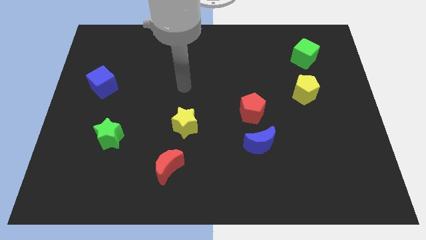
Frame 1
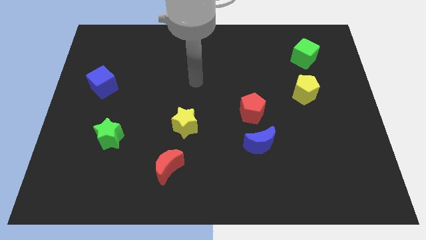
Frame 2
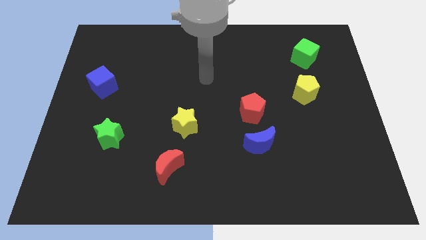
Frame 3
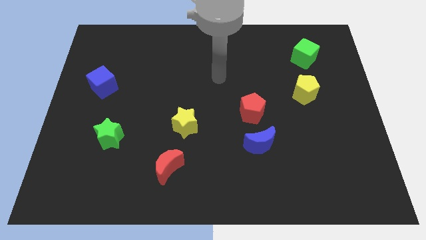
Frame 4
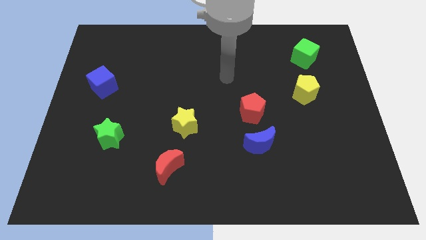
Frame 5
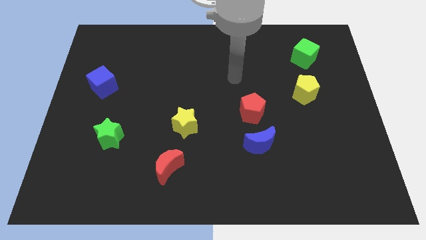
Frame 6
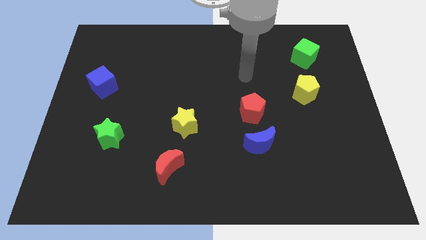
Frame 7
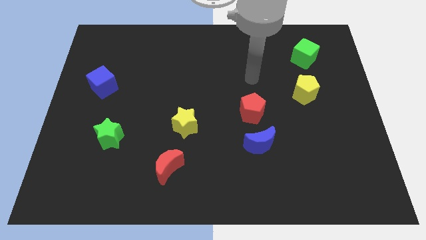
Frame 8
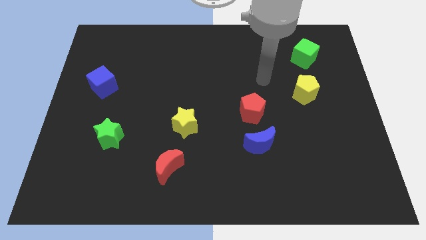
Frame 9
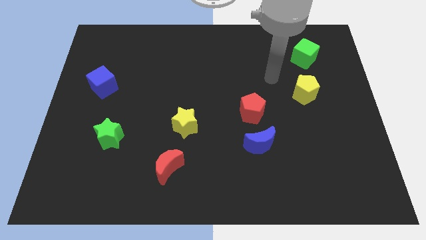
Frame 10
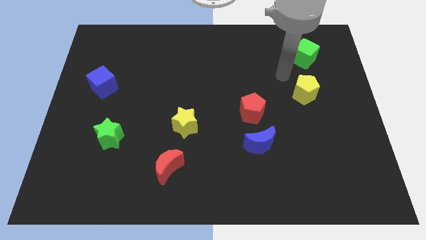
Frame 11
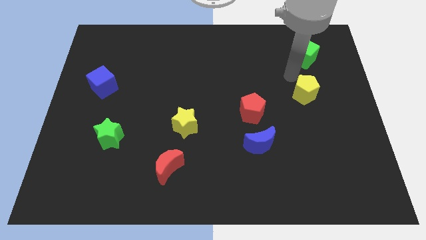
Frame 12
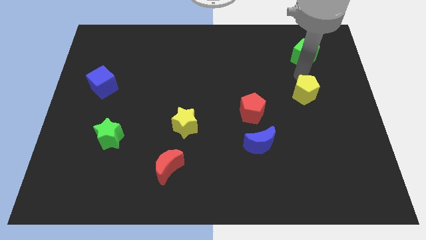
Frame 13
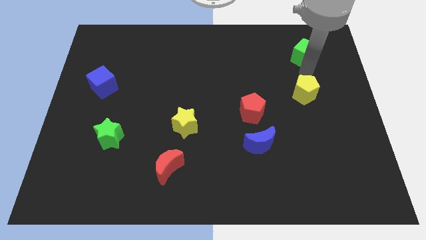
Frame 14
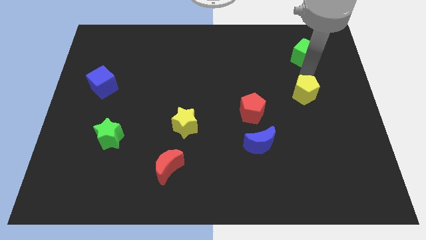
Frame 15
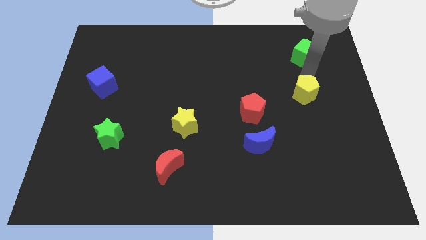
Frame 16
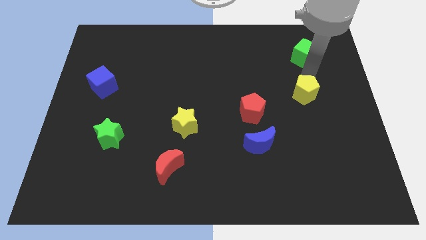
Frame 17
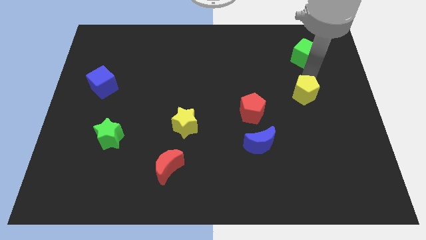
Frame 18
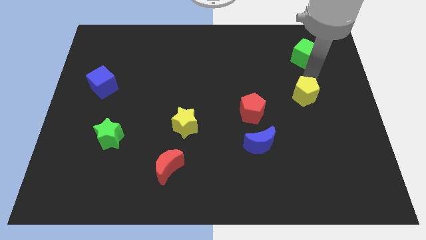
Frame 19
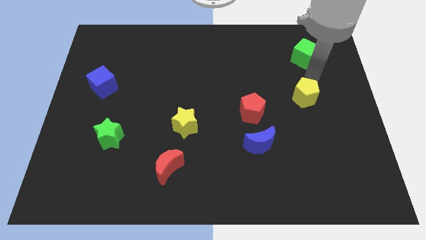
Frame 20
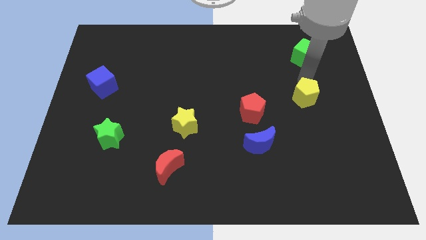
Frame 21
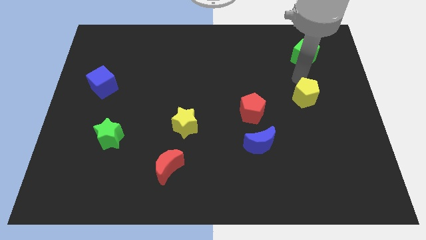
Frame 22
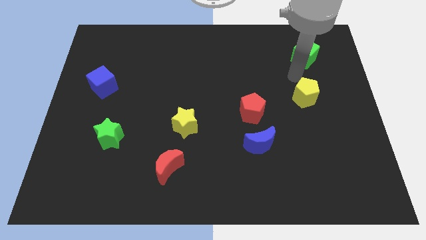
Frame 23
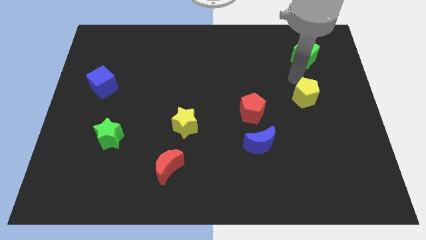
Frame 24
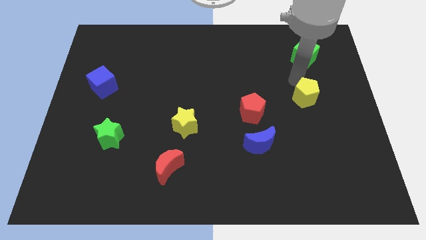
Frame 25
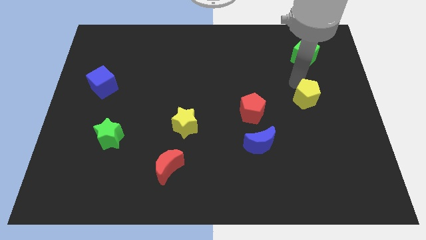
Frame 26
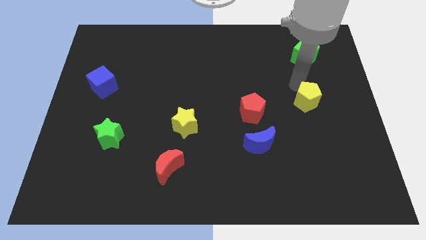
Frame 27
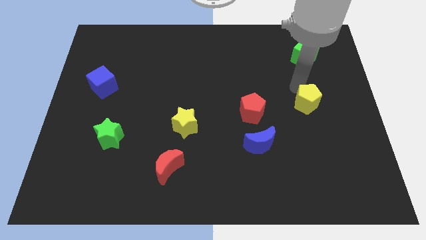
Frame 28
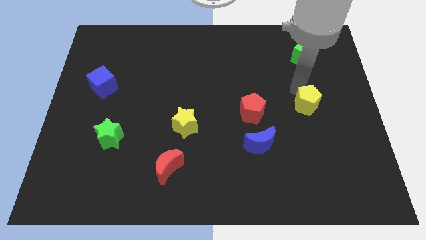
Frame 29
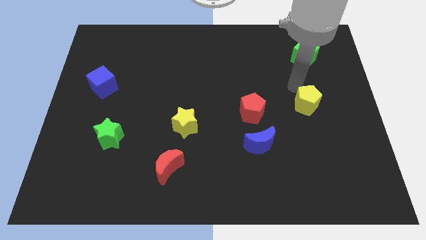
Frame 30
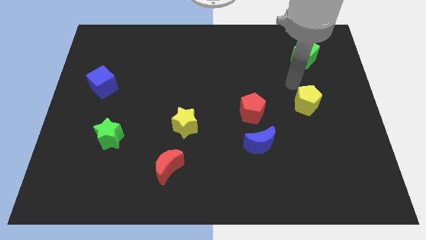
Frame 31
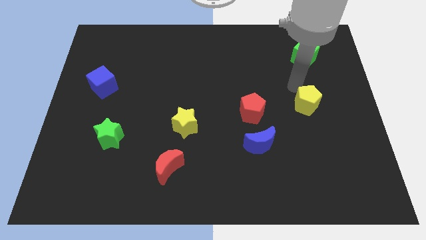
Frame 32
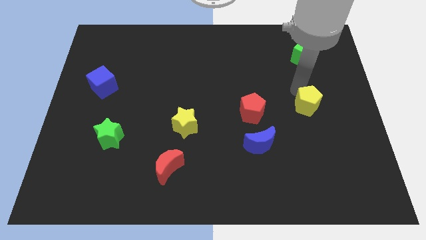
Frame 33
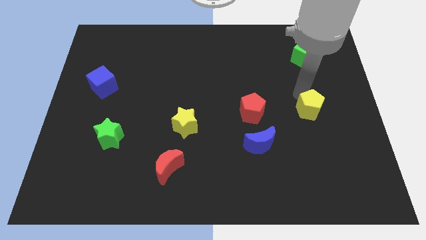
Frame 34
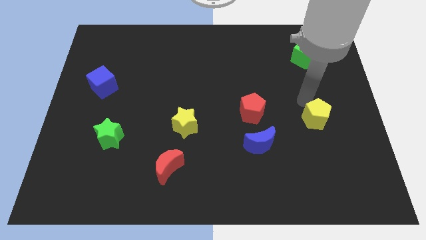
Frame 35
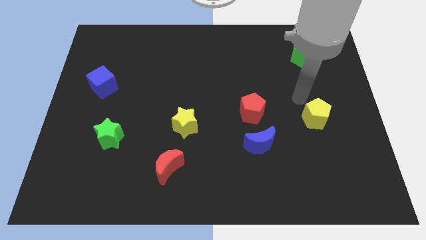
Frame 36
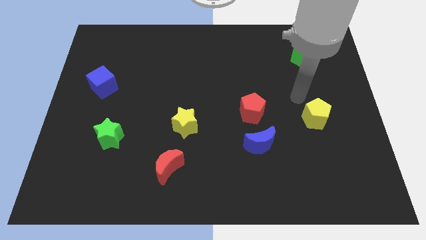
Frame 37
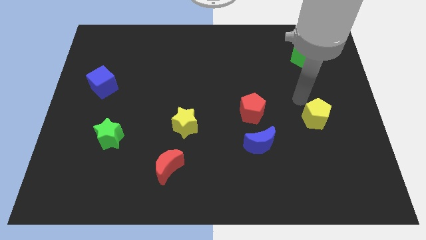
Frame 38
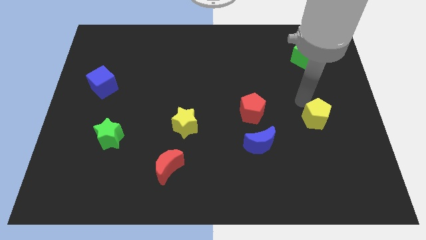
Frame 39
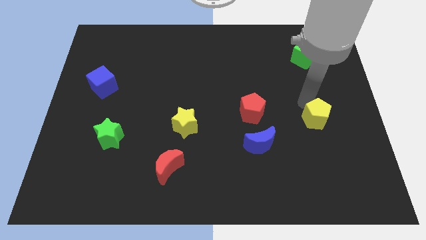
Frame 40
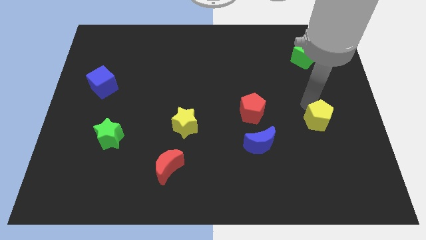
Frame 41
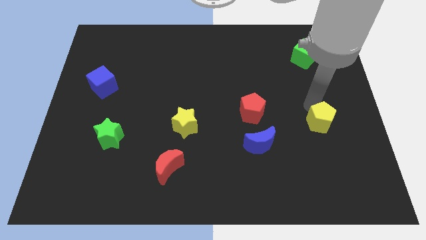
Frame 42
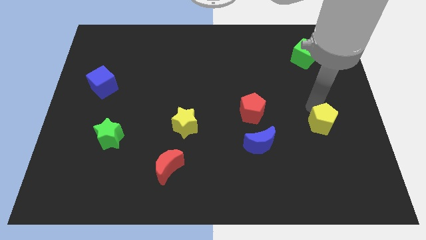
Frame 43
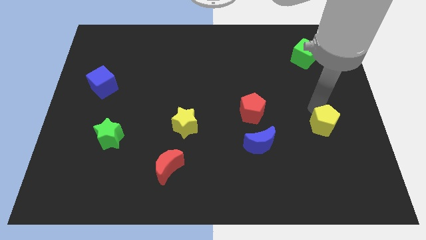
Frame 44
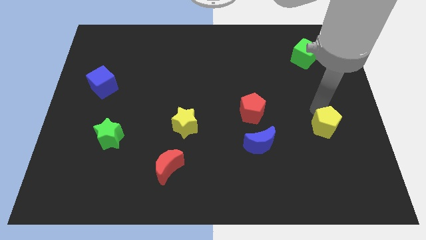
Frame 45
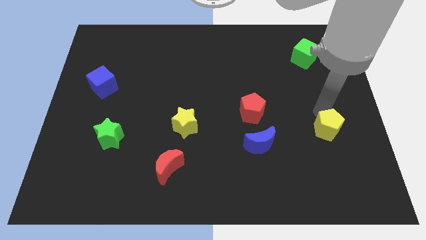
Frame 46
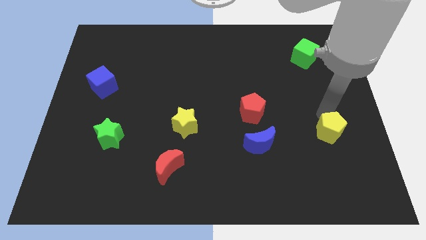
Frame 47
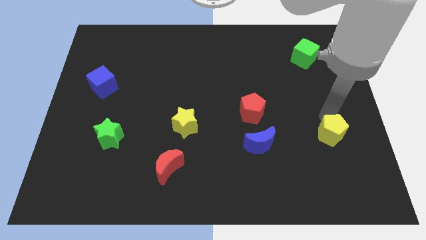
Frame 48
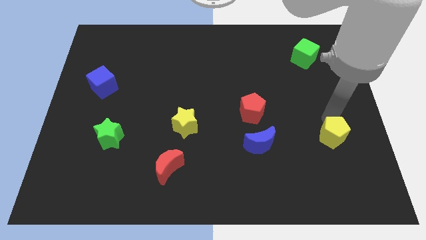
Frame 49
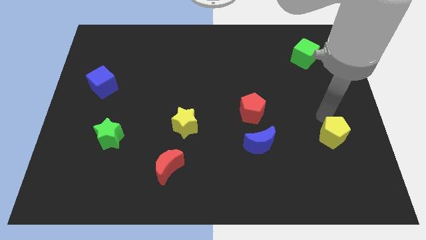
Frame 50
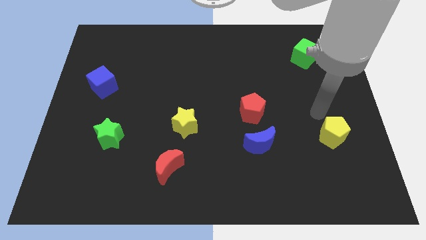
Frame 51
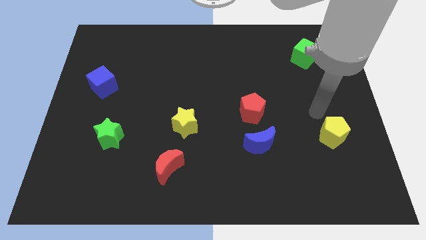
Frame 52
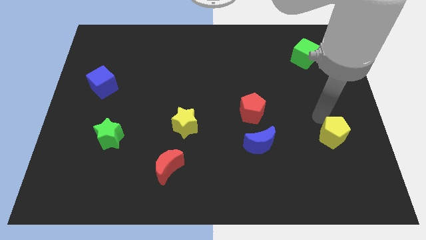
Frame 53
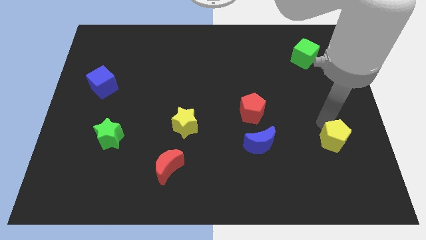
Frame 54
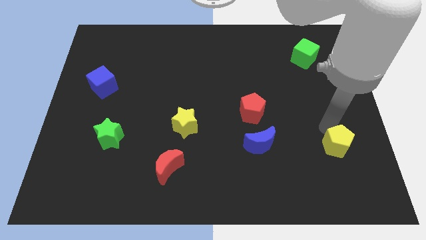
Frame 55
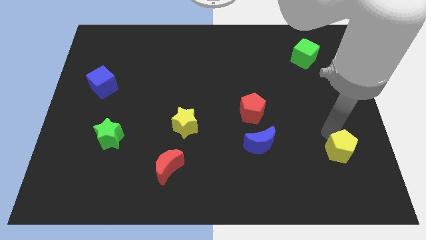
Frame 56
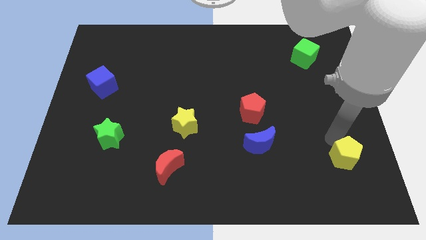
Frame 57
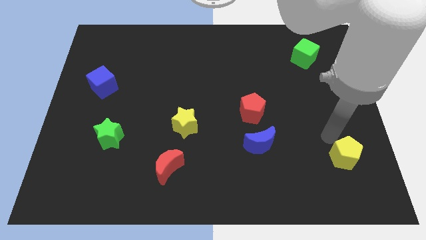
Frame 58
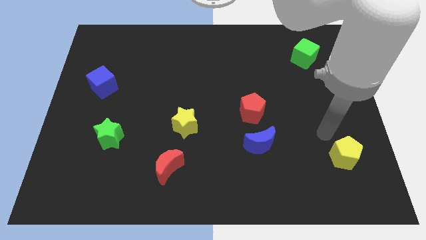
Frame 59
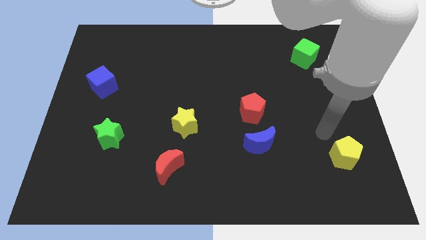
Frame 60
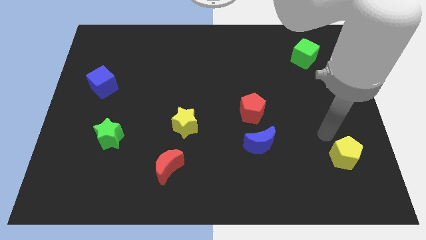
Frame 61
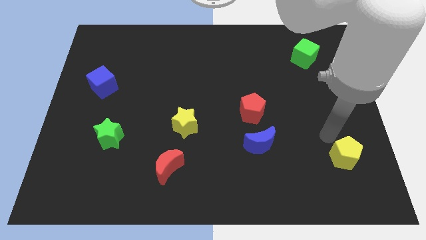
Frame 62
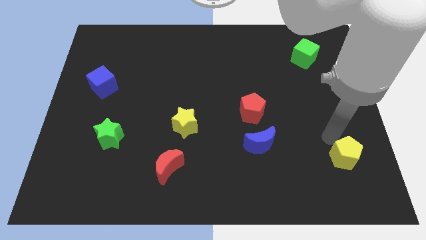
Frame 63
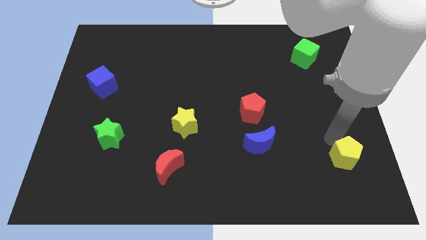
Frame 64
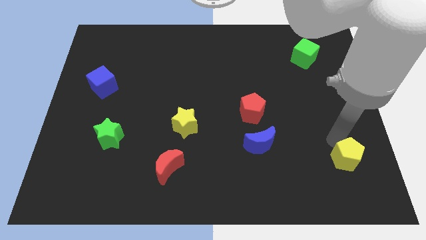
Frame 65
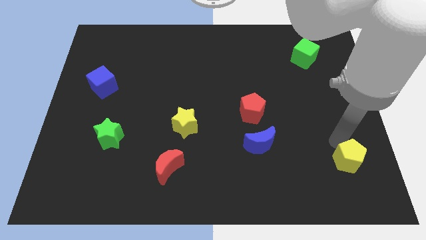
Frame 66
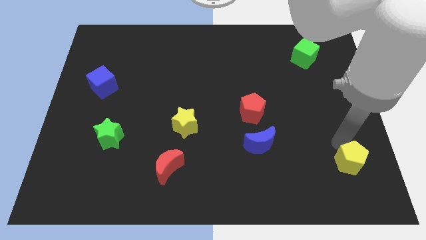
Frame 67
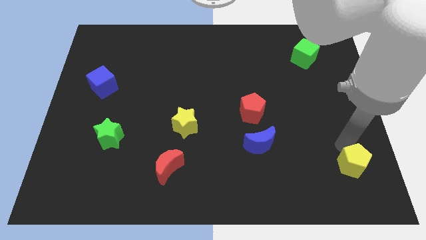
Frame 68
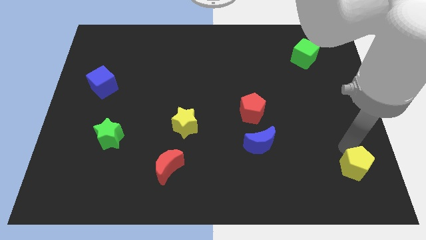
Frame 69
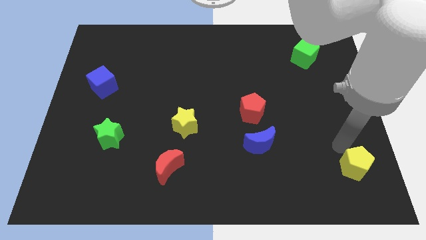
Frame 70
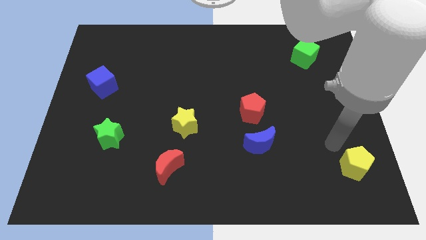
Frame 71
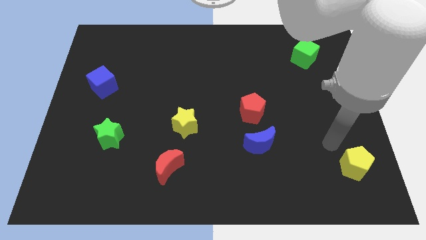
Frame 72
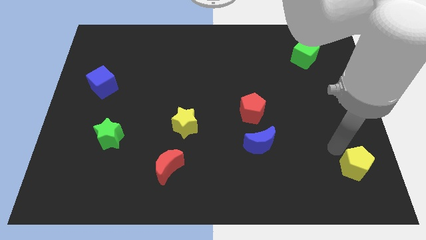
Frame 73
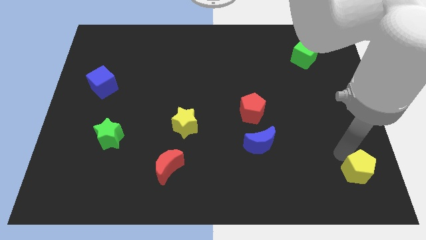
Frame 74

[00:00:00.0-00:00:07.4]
move the yellow pentagon to the bottom right
